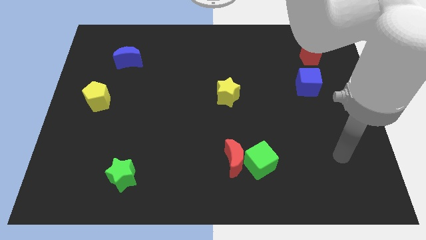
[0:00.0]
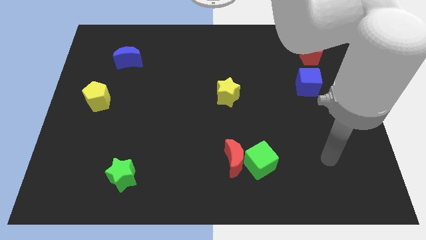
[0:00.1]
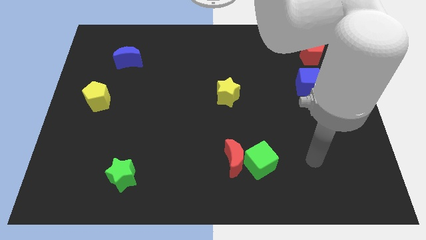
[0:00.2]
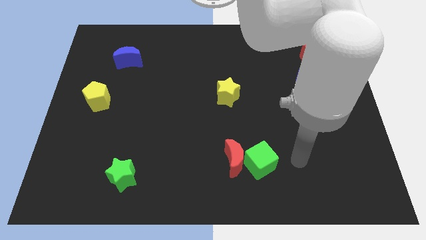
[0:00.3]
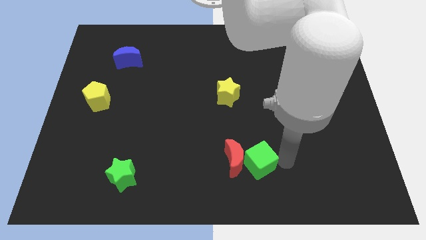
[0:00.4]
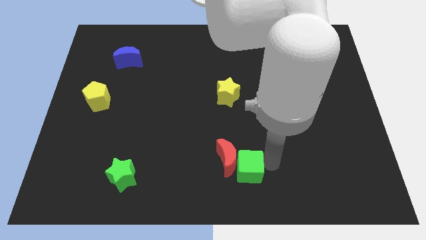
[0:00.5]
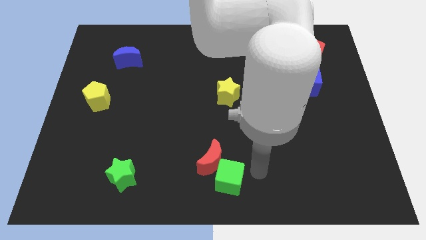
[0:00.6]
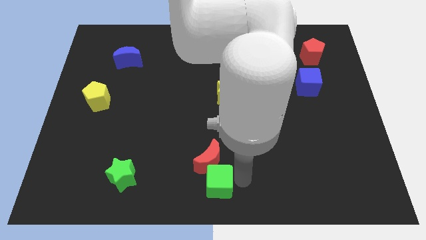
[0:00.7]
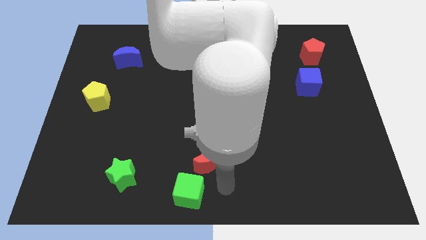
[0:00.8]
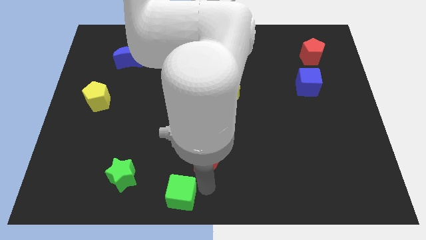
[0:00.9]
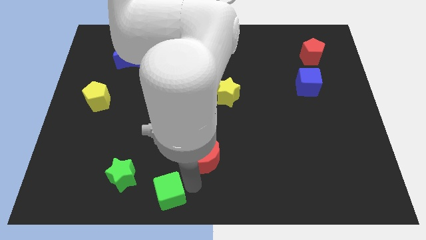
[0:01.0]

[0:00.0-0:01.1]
pull the red moon apart from the green cube

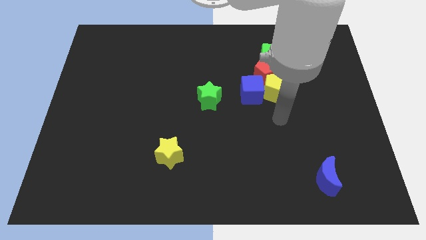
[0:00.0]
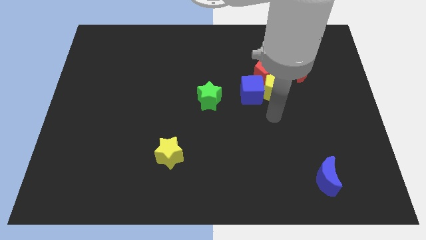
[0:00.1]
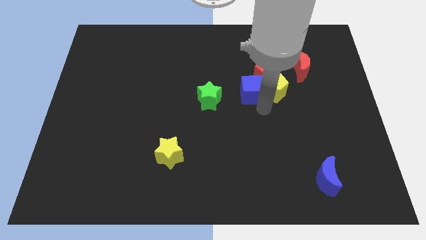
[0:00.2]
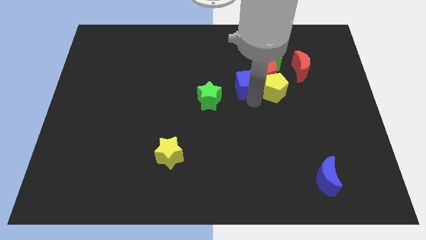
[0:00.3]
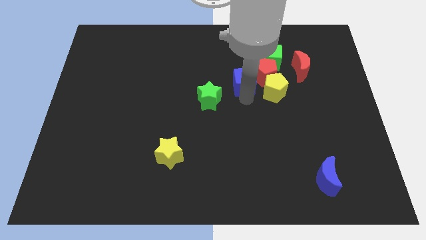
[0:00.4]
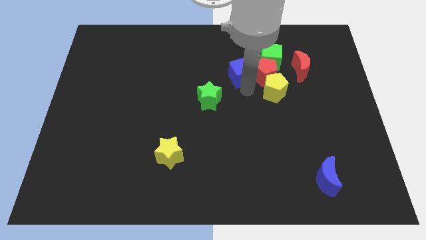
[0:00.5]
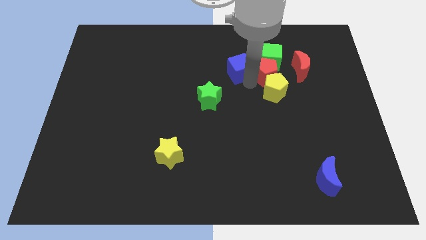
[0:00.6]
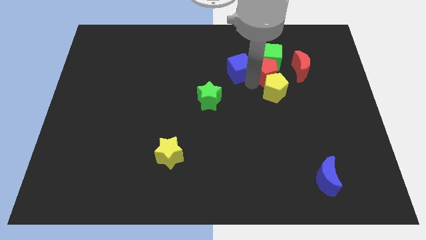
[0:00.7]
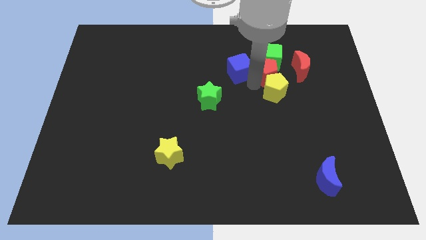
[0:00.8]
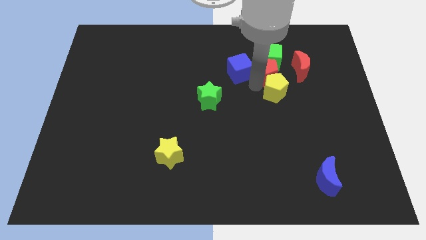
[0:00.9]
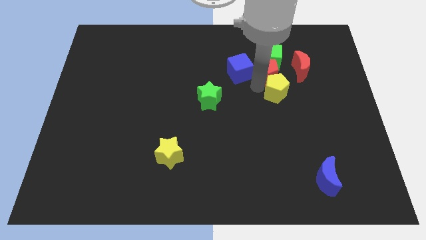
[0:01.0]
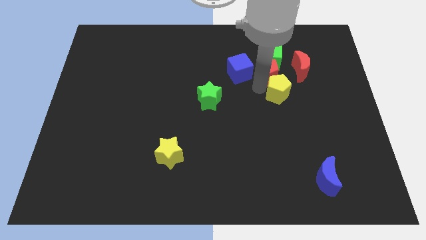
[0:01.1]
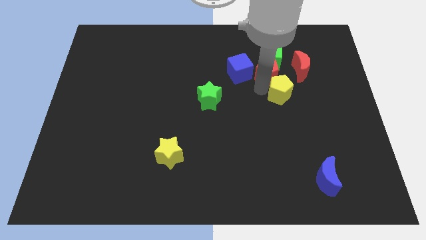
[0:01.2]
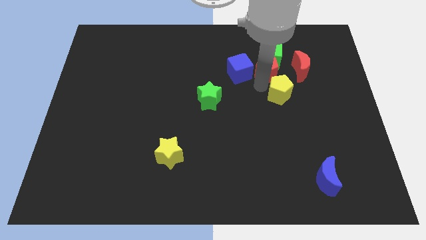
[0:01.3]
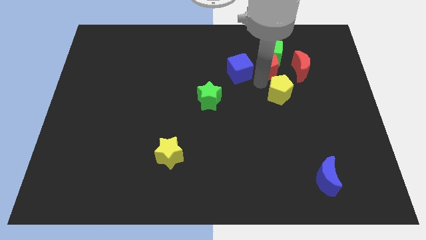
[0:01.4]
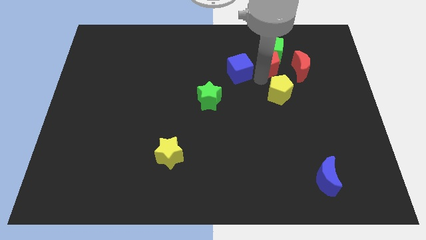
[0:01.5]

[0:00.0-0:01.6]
separate the yellow pentagon from the blue cube and red pentagon

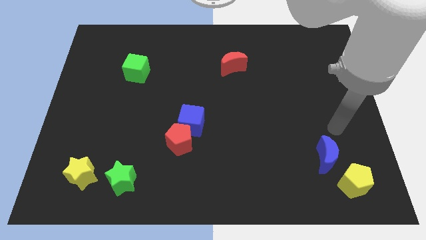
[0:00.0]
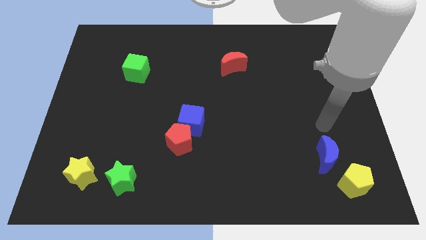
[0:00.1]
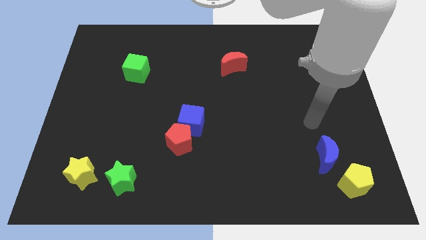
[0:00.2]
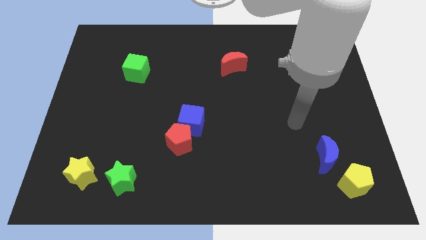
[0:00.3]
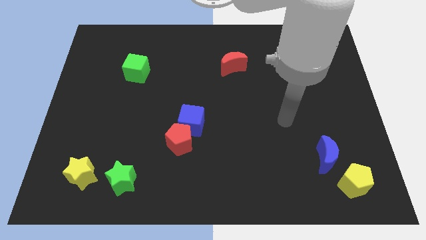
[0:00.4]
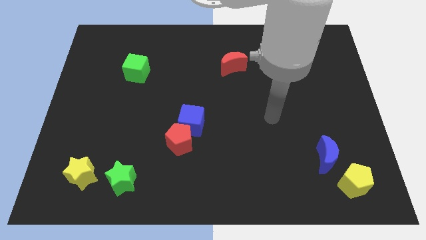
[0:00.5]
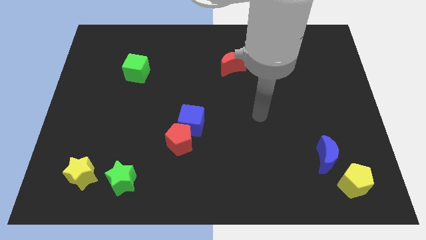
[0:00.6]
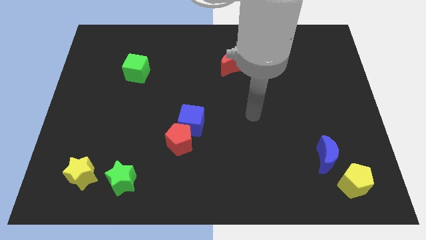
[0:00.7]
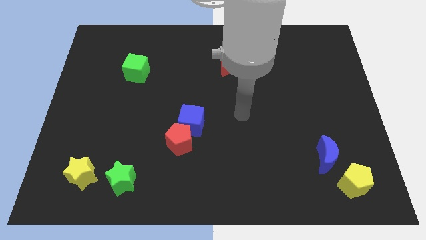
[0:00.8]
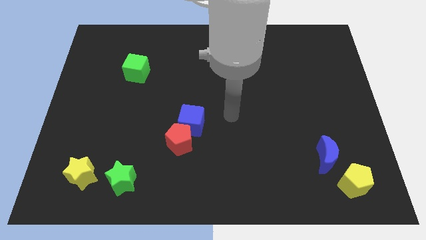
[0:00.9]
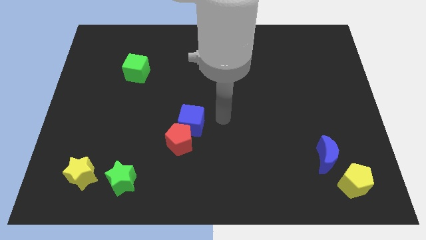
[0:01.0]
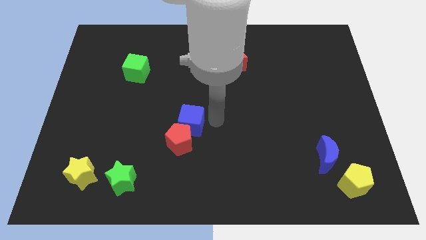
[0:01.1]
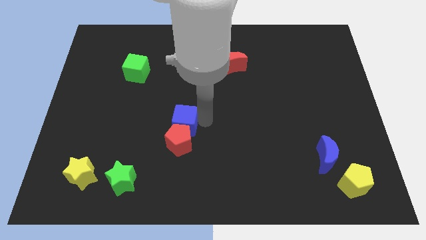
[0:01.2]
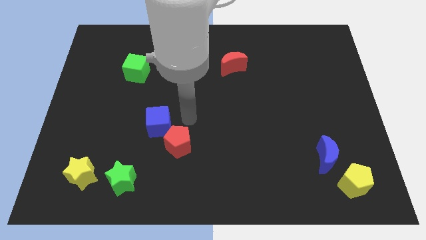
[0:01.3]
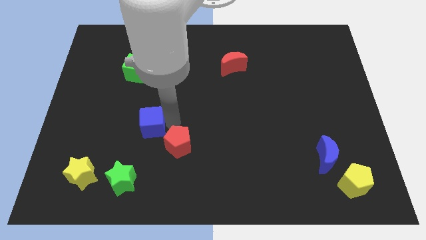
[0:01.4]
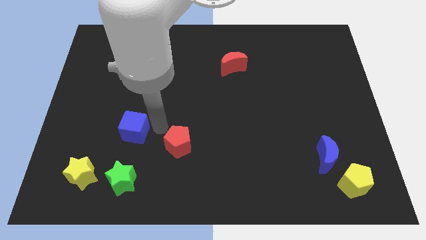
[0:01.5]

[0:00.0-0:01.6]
move the red pentagon away from the blue cube

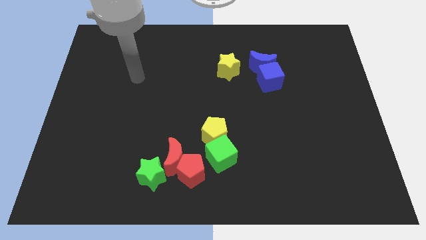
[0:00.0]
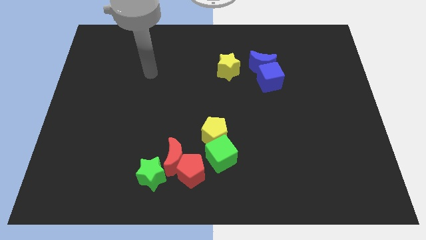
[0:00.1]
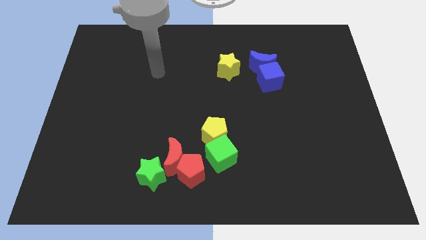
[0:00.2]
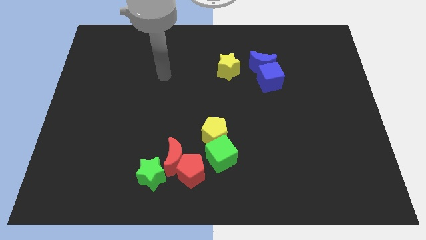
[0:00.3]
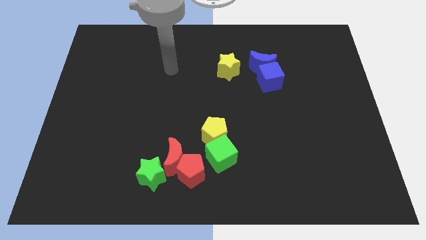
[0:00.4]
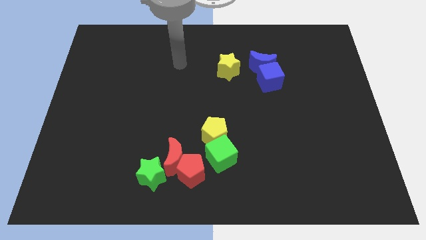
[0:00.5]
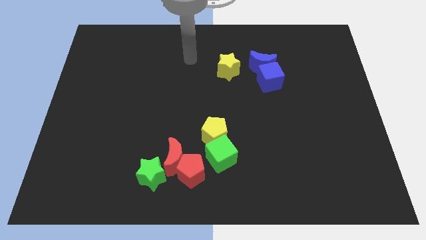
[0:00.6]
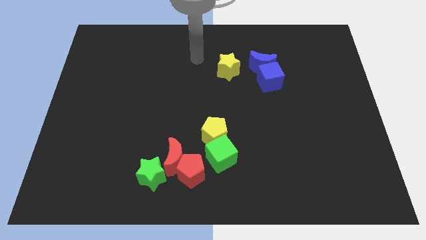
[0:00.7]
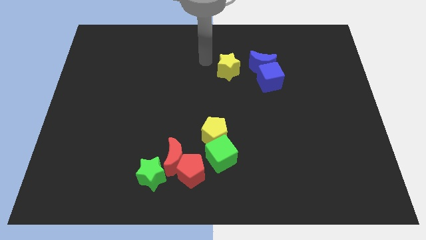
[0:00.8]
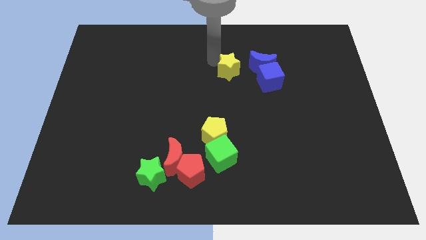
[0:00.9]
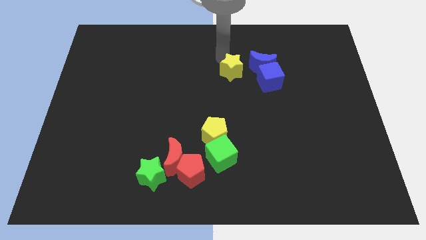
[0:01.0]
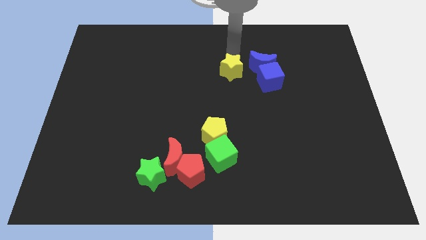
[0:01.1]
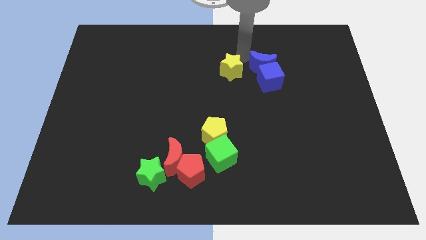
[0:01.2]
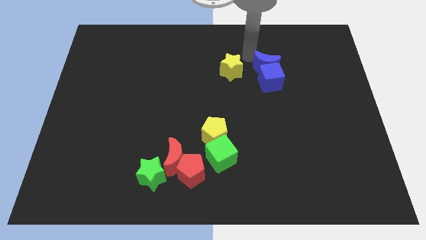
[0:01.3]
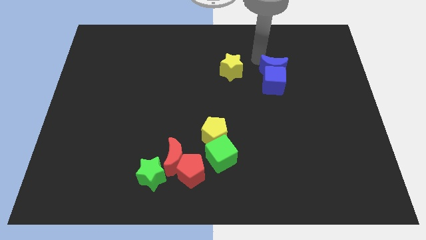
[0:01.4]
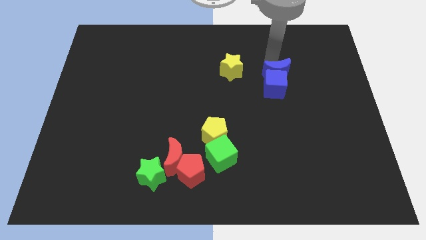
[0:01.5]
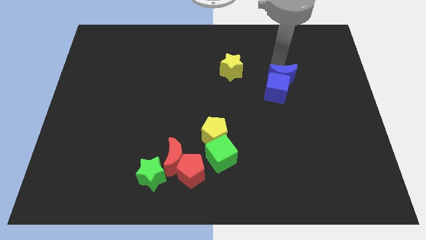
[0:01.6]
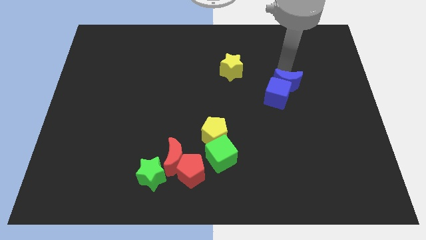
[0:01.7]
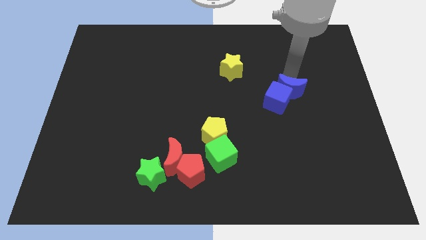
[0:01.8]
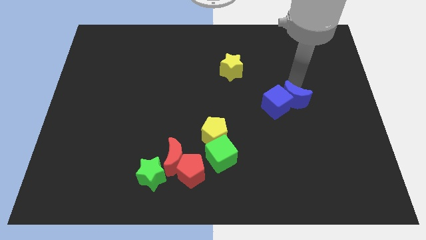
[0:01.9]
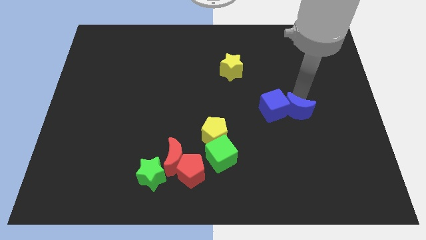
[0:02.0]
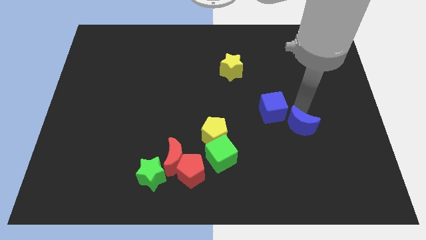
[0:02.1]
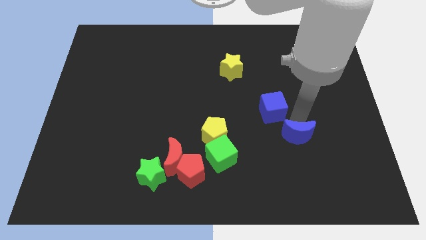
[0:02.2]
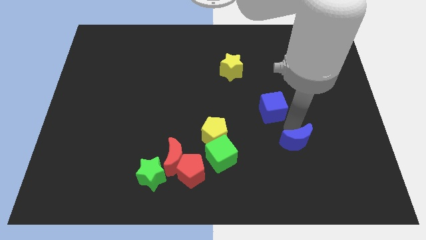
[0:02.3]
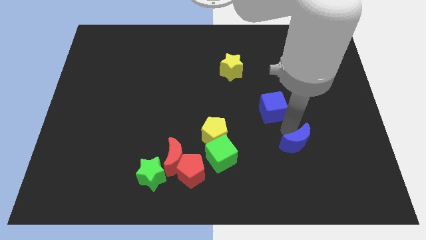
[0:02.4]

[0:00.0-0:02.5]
pull the blue cube apart from the blue moon

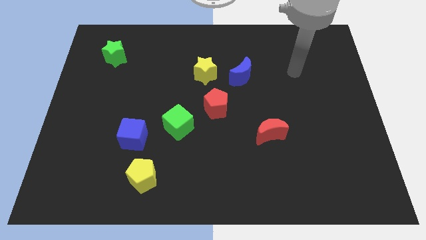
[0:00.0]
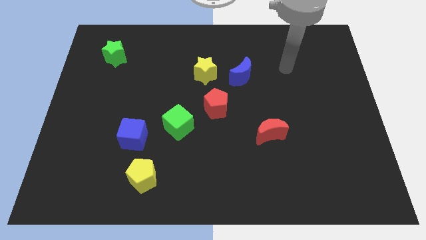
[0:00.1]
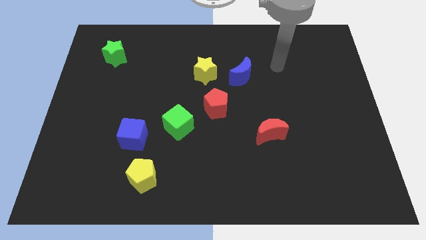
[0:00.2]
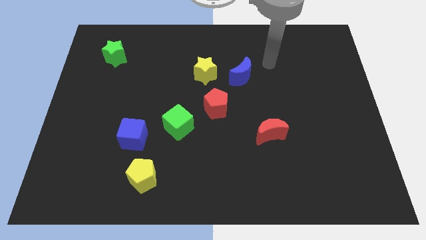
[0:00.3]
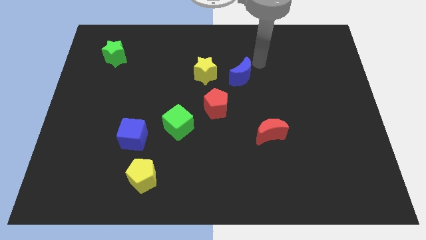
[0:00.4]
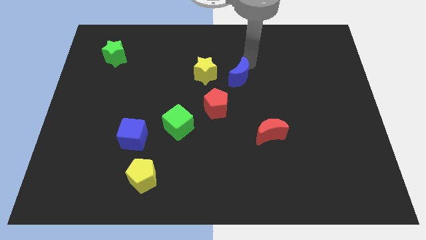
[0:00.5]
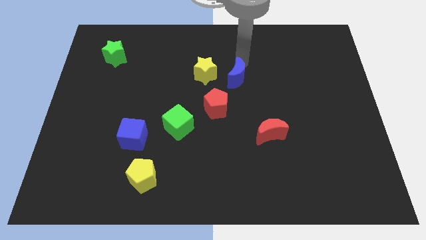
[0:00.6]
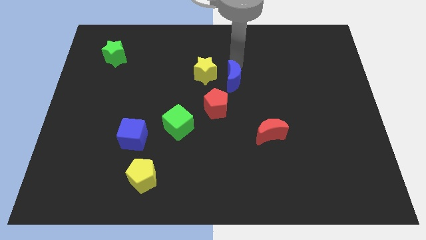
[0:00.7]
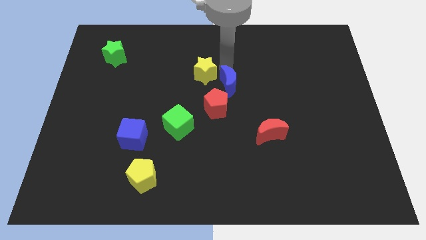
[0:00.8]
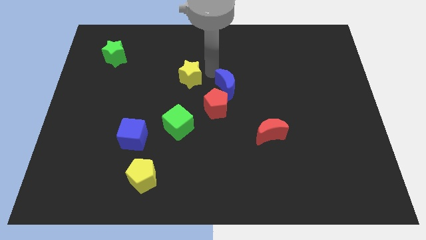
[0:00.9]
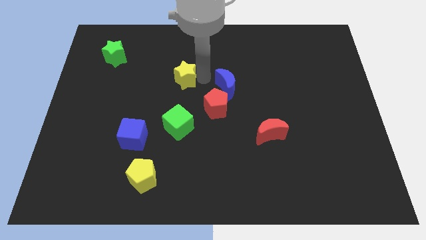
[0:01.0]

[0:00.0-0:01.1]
pull the blue moon apart from the yellow star

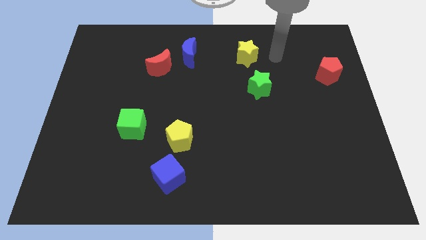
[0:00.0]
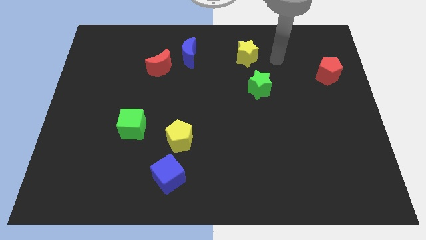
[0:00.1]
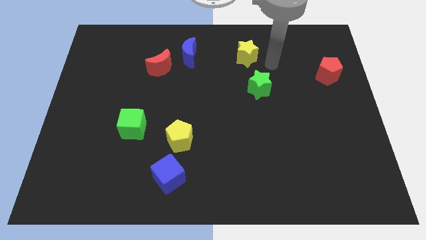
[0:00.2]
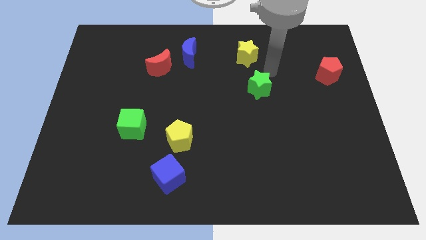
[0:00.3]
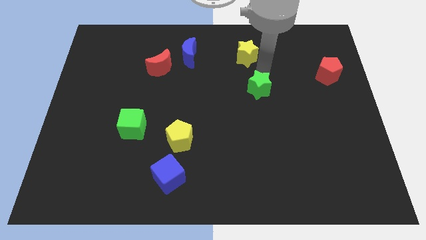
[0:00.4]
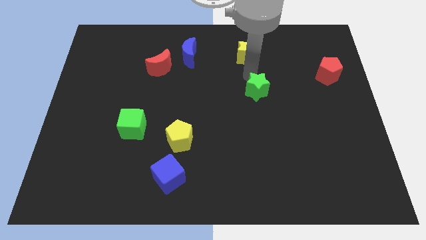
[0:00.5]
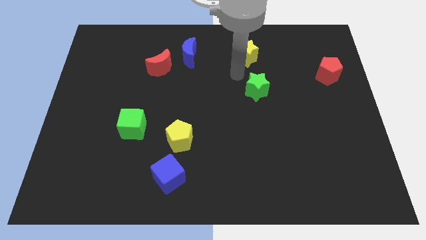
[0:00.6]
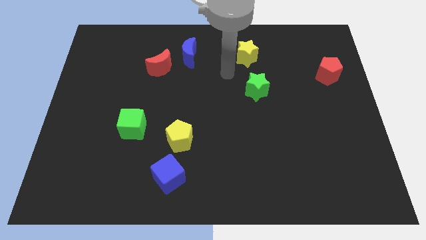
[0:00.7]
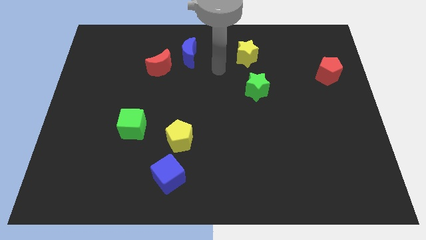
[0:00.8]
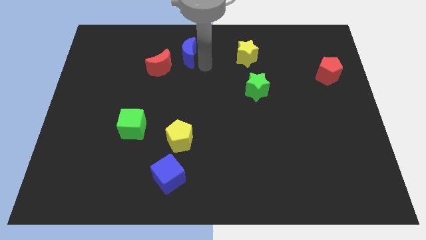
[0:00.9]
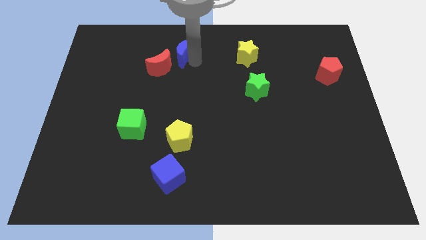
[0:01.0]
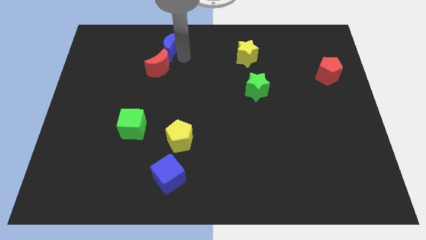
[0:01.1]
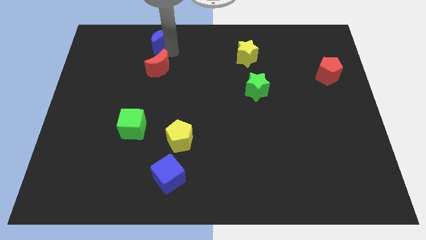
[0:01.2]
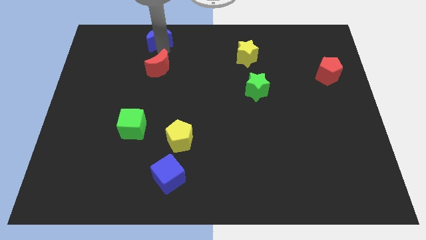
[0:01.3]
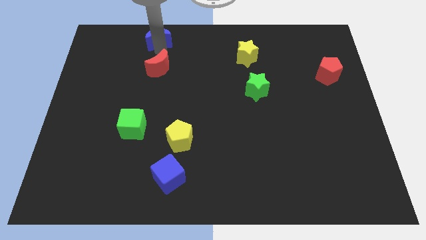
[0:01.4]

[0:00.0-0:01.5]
separate the red moon from the blue moon
